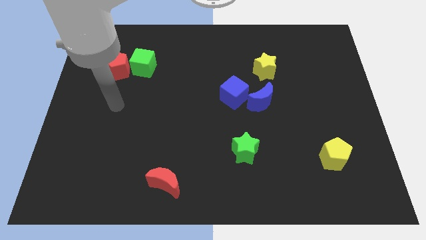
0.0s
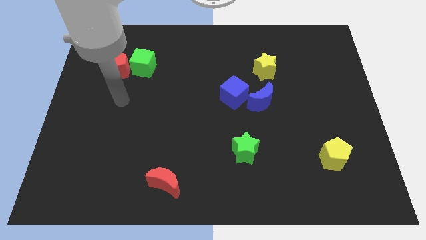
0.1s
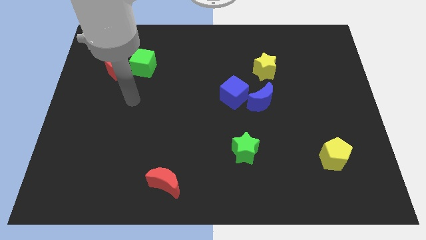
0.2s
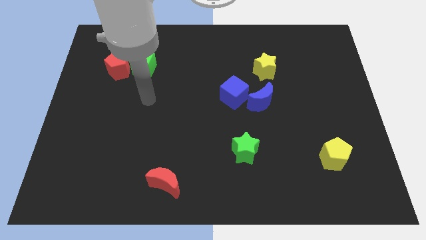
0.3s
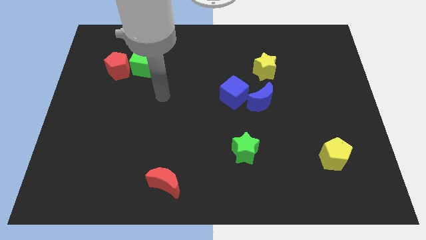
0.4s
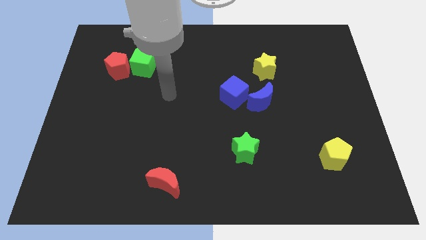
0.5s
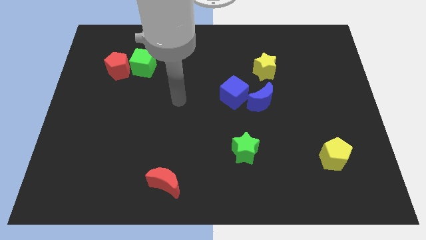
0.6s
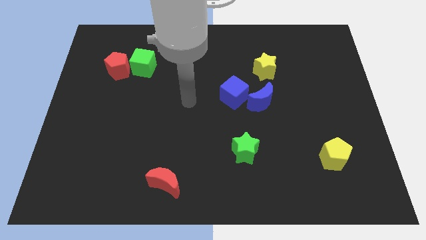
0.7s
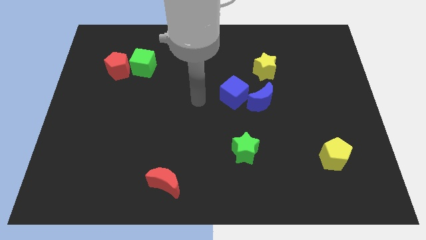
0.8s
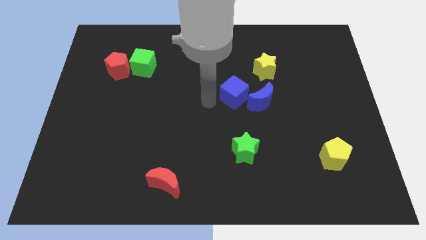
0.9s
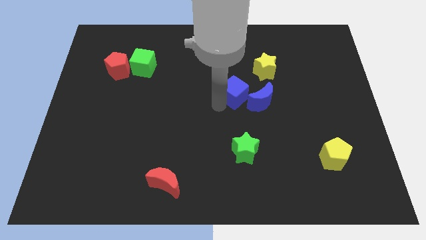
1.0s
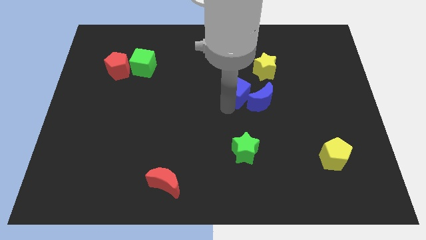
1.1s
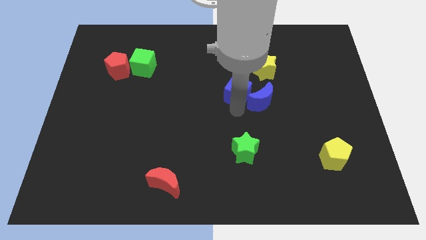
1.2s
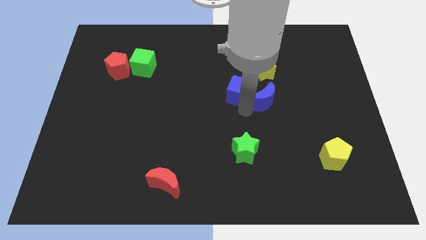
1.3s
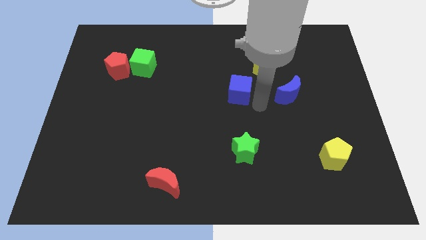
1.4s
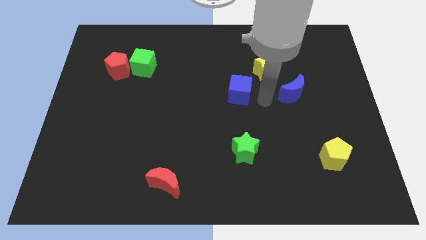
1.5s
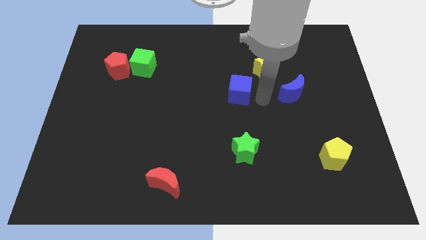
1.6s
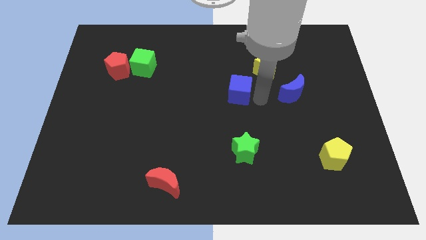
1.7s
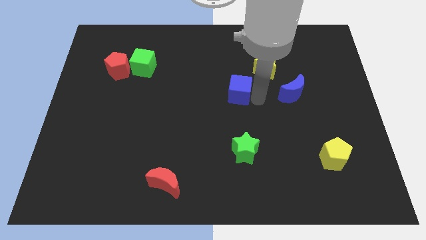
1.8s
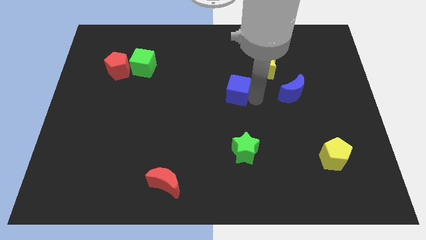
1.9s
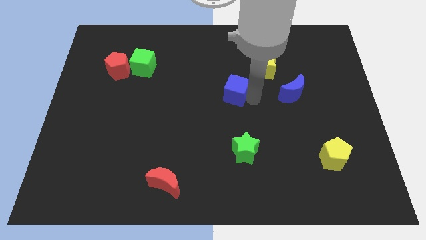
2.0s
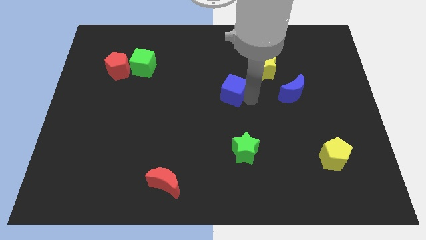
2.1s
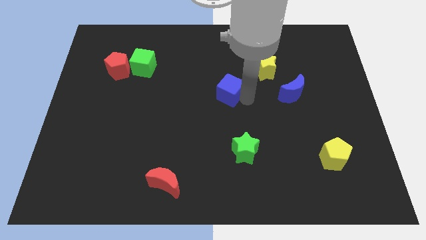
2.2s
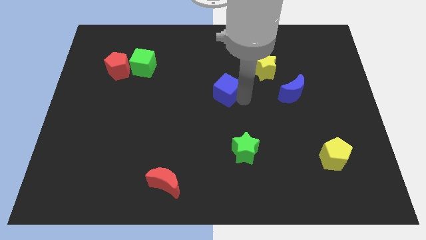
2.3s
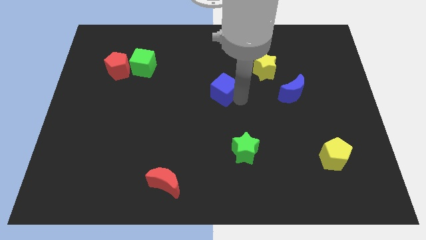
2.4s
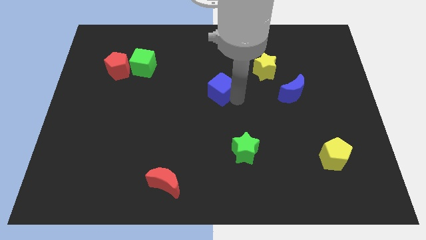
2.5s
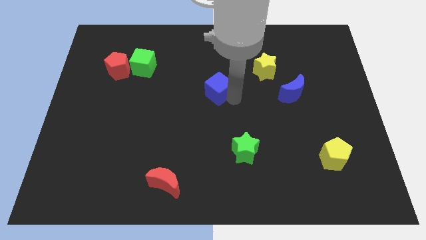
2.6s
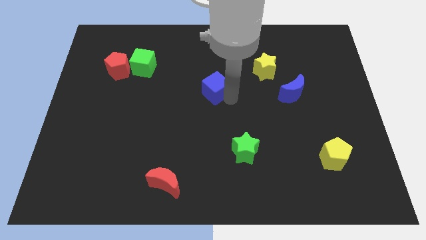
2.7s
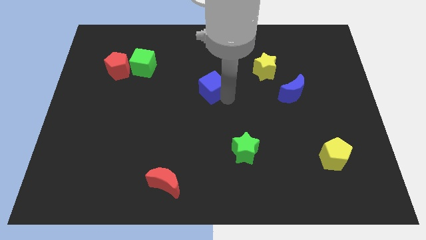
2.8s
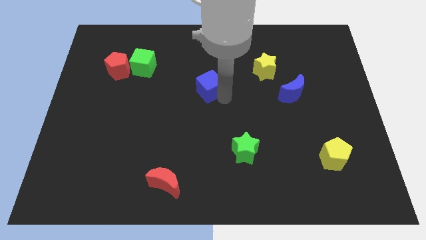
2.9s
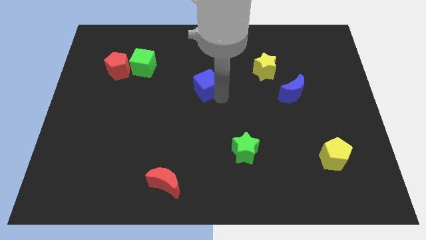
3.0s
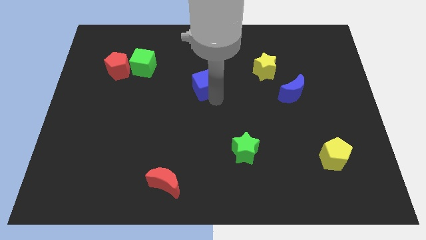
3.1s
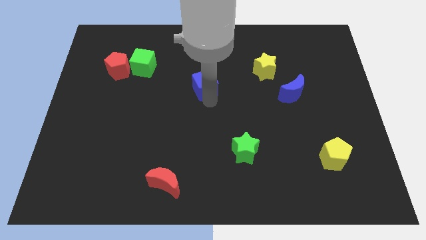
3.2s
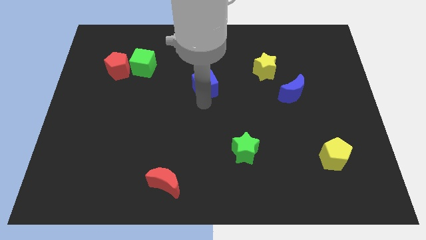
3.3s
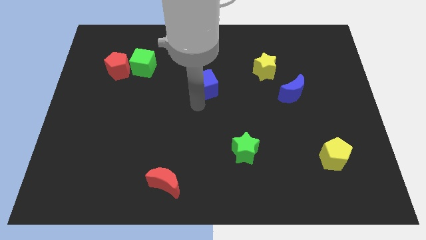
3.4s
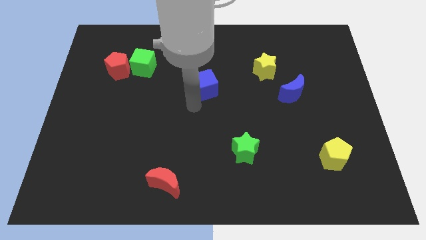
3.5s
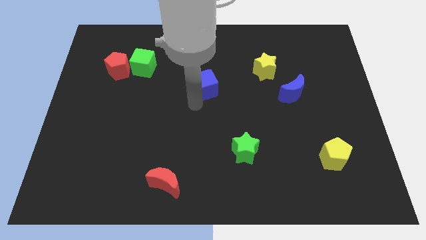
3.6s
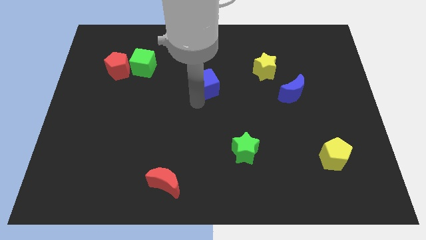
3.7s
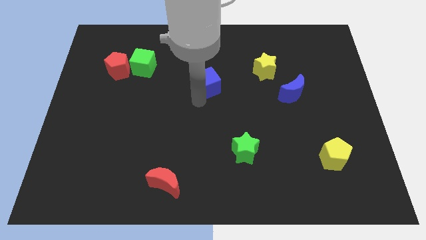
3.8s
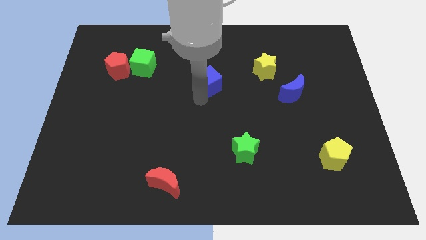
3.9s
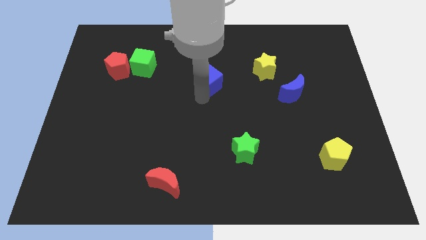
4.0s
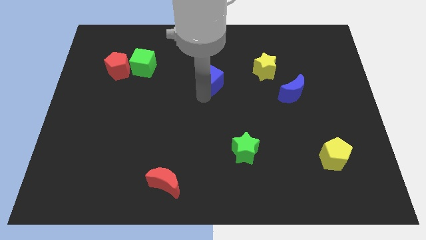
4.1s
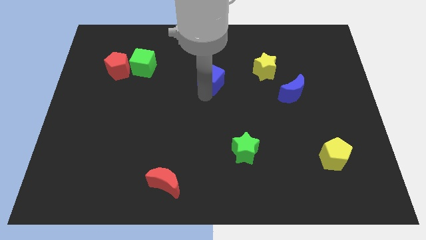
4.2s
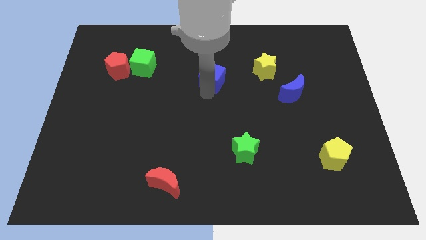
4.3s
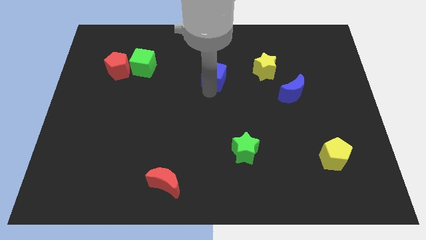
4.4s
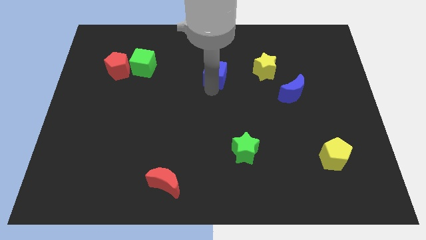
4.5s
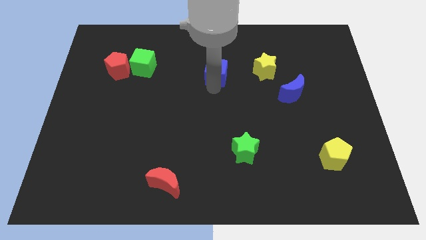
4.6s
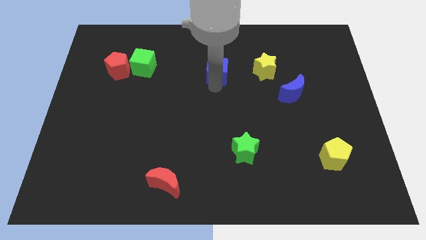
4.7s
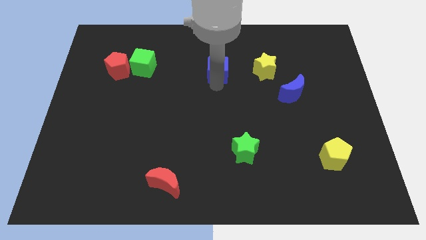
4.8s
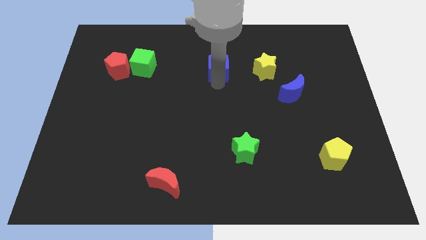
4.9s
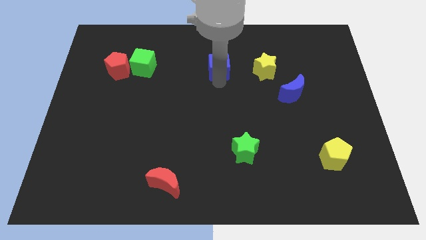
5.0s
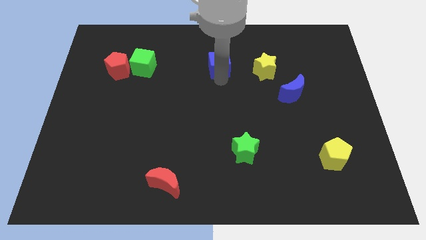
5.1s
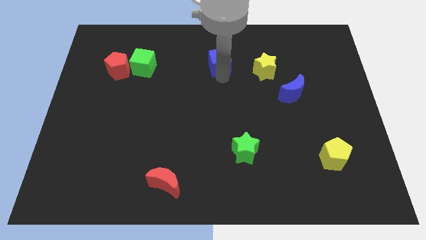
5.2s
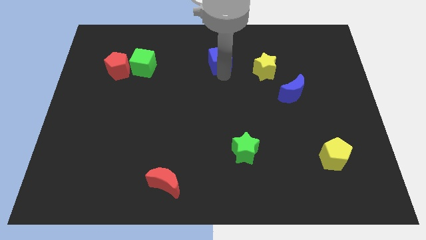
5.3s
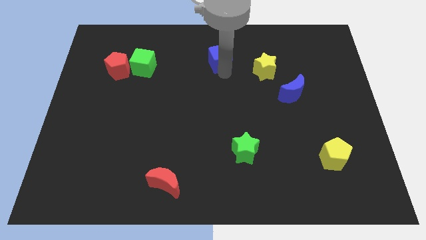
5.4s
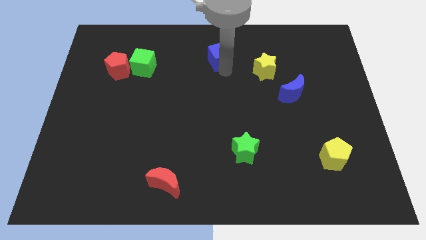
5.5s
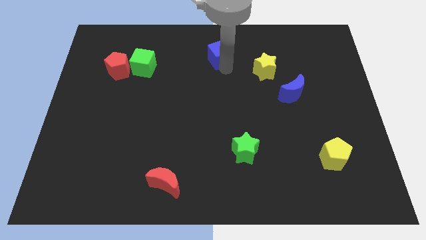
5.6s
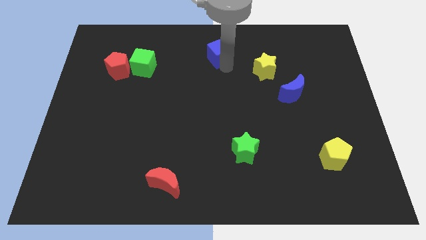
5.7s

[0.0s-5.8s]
put the blue cube to the top side
